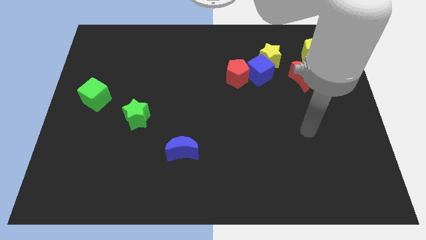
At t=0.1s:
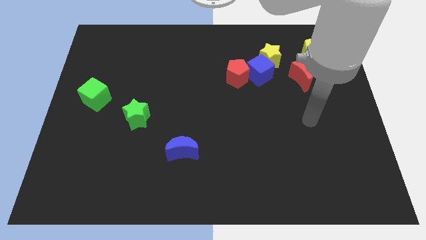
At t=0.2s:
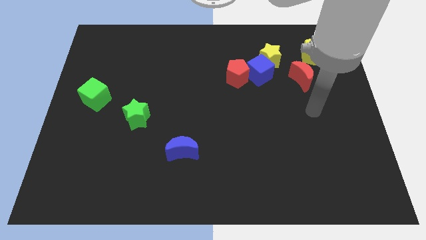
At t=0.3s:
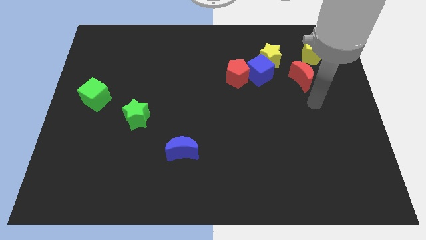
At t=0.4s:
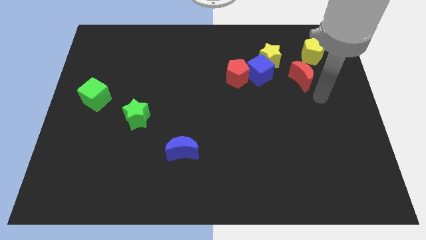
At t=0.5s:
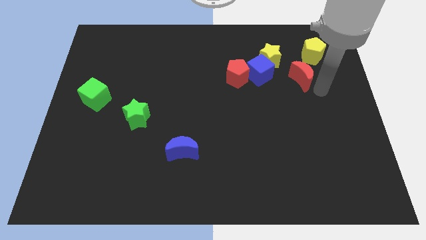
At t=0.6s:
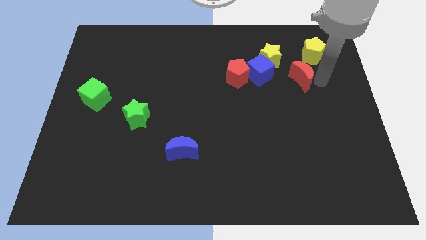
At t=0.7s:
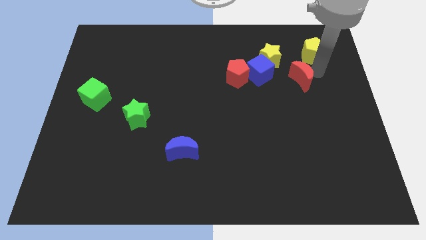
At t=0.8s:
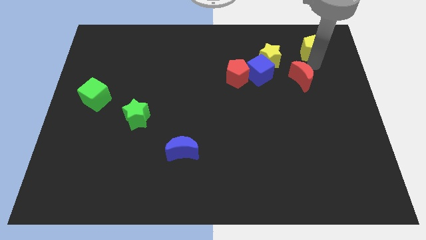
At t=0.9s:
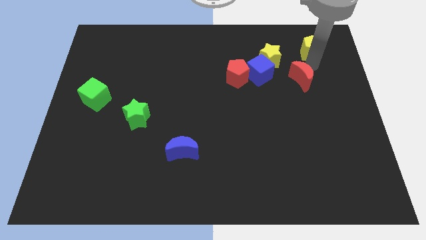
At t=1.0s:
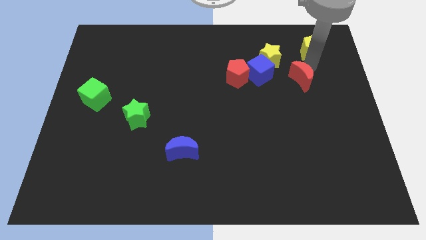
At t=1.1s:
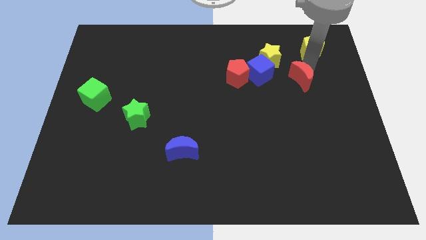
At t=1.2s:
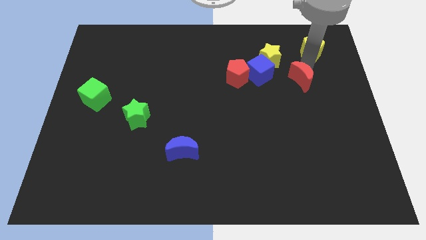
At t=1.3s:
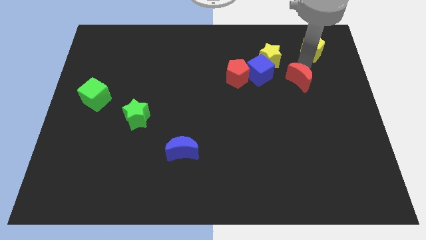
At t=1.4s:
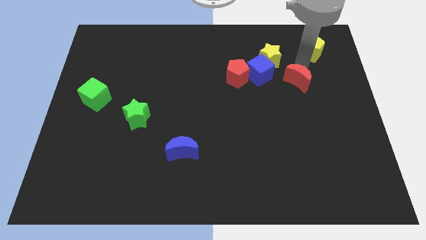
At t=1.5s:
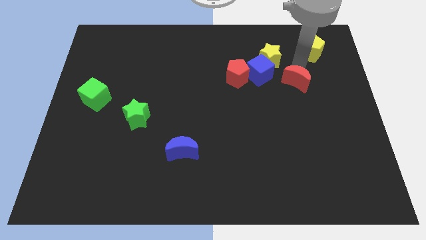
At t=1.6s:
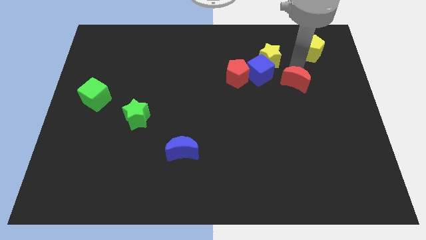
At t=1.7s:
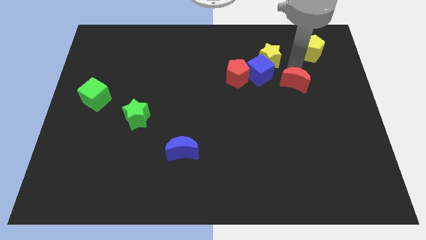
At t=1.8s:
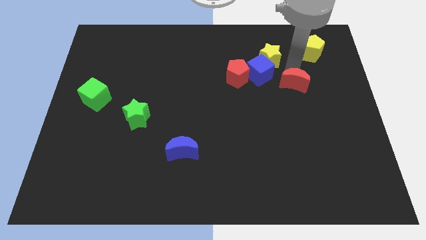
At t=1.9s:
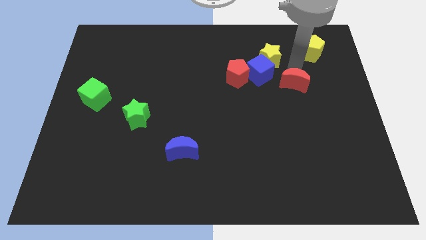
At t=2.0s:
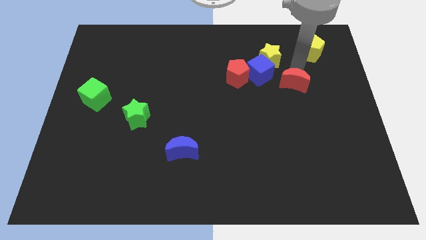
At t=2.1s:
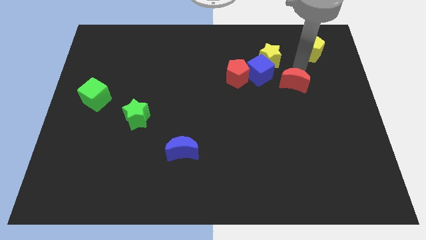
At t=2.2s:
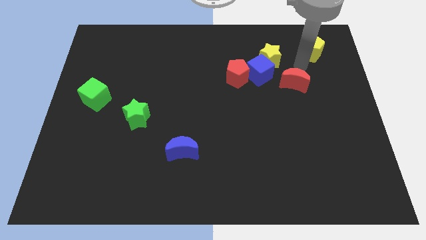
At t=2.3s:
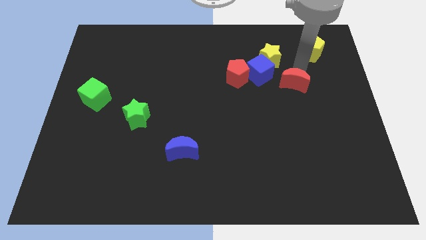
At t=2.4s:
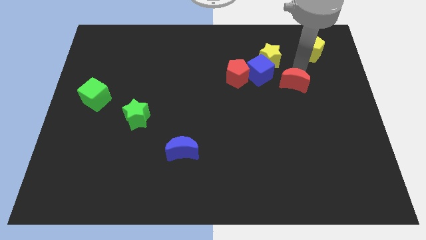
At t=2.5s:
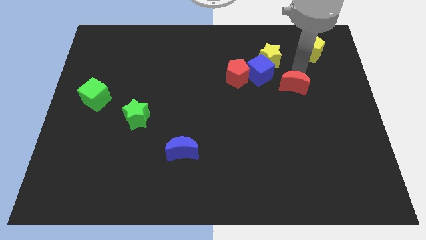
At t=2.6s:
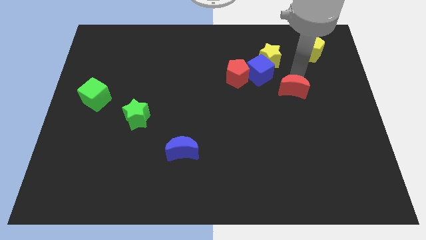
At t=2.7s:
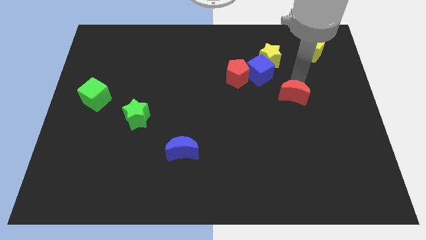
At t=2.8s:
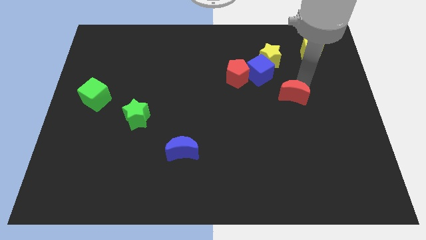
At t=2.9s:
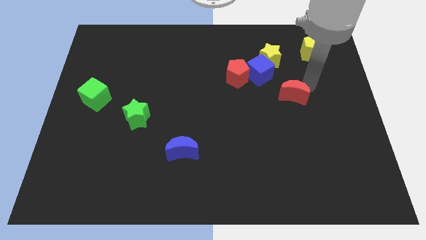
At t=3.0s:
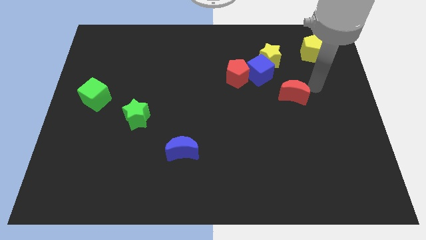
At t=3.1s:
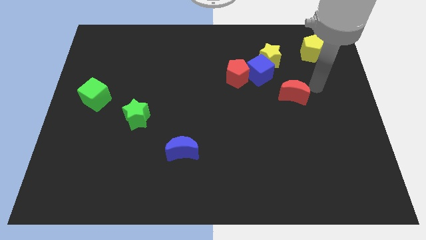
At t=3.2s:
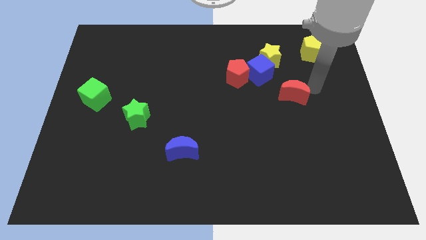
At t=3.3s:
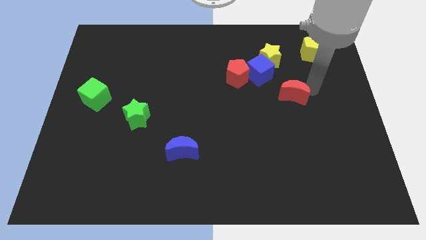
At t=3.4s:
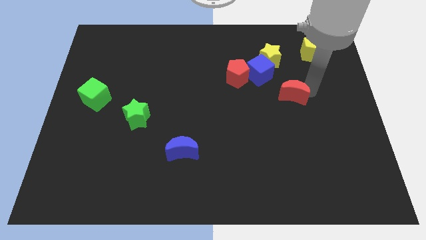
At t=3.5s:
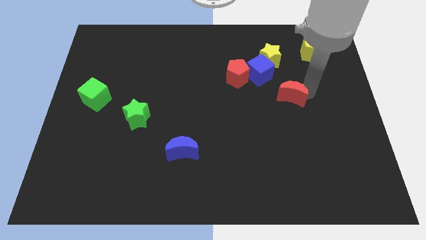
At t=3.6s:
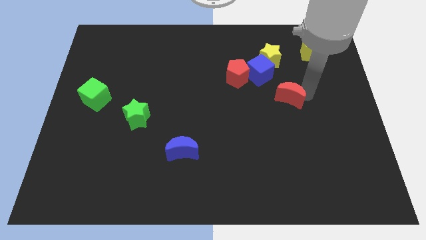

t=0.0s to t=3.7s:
move the red moon a little diagonally down and left

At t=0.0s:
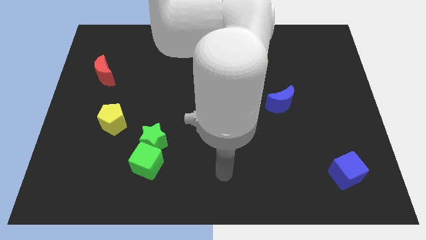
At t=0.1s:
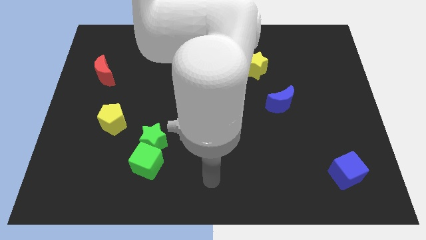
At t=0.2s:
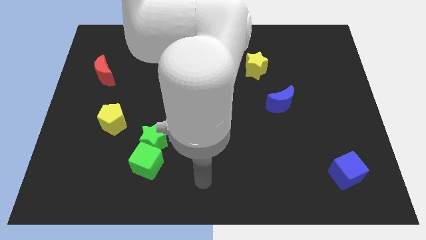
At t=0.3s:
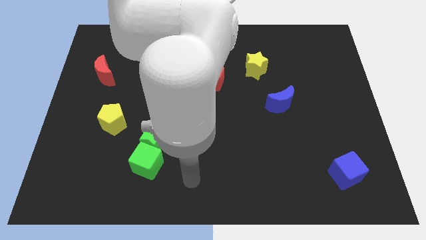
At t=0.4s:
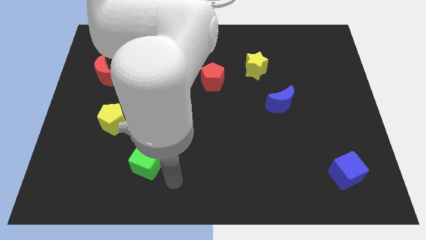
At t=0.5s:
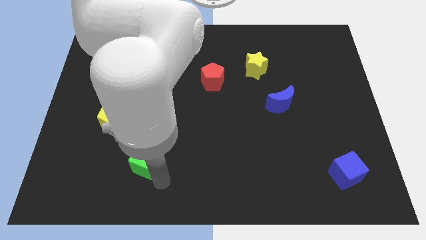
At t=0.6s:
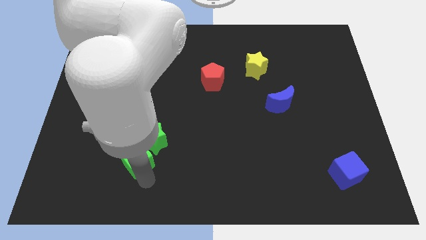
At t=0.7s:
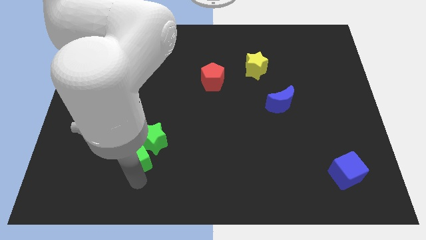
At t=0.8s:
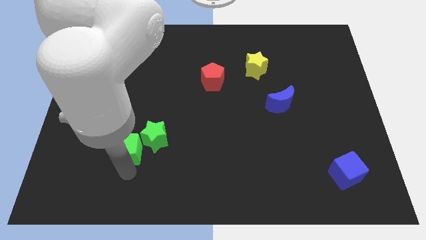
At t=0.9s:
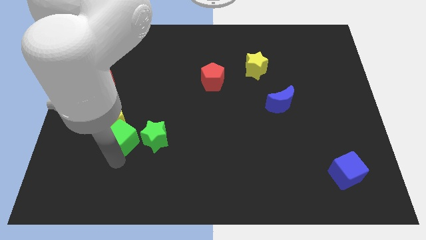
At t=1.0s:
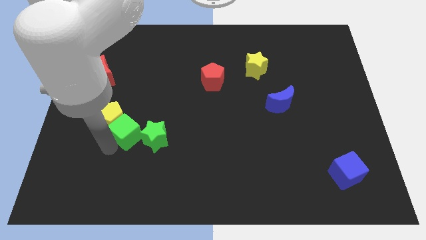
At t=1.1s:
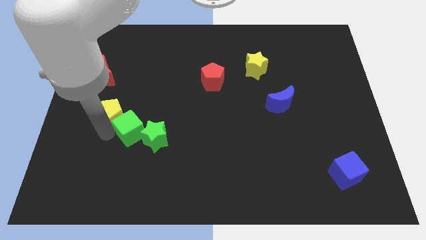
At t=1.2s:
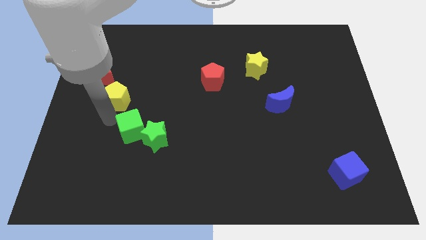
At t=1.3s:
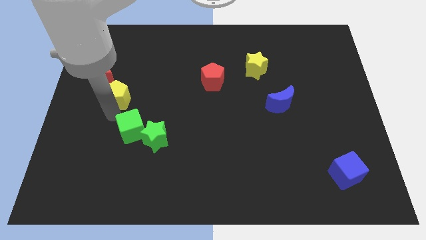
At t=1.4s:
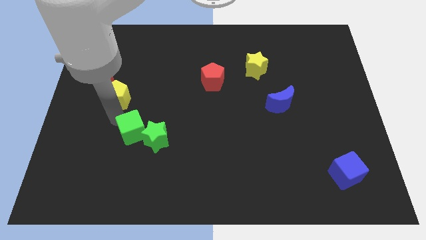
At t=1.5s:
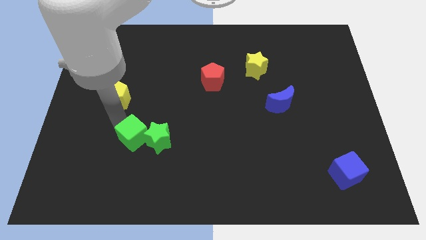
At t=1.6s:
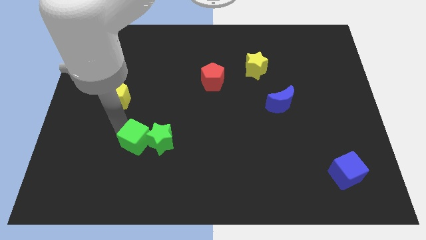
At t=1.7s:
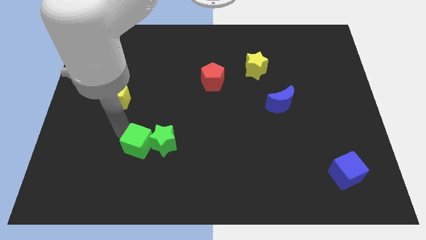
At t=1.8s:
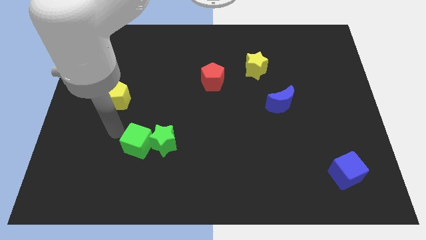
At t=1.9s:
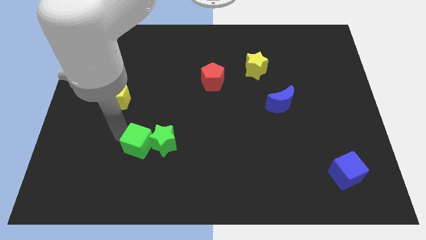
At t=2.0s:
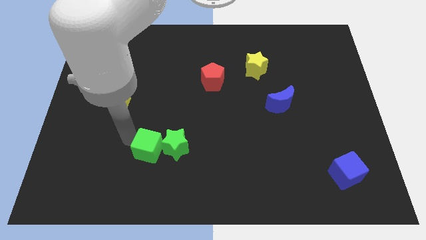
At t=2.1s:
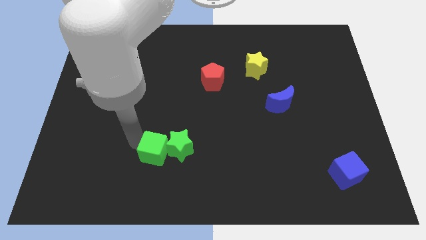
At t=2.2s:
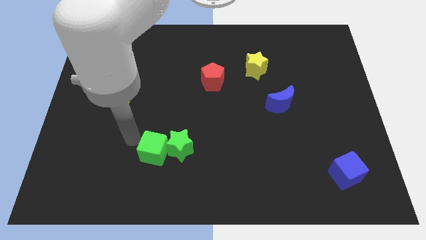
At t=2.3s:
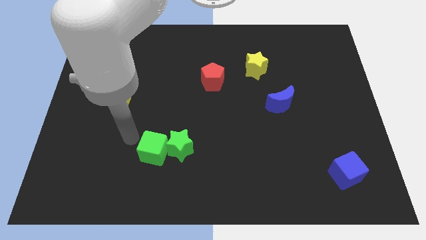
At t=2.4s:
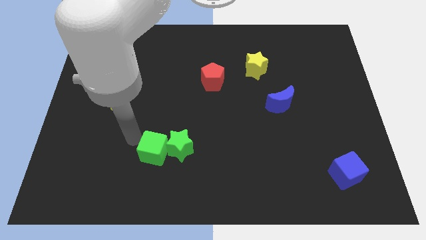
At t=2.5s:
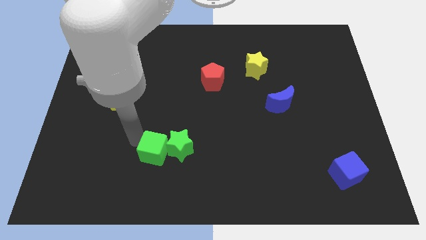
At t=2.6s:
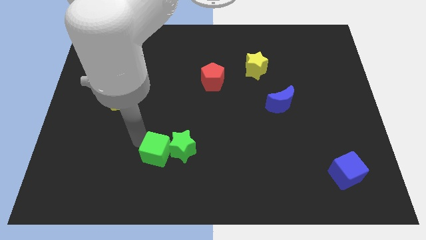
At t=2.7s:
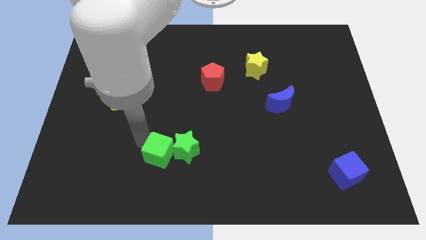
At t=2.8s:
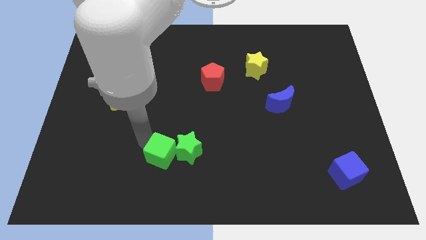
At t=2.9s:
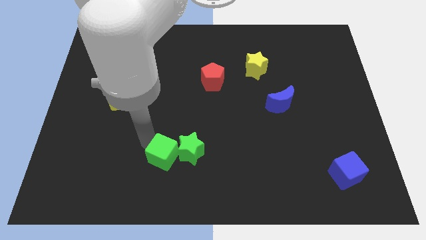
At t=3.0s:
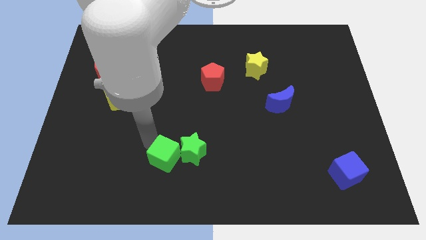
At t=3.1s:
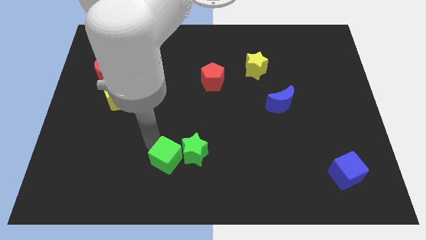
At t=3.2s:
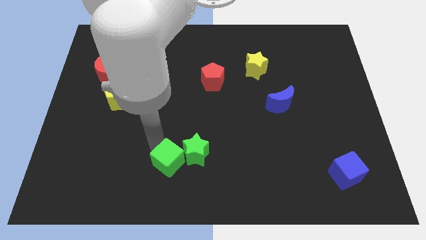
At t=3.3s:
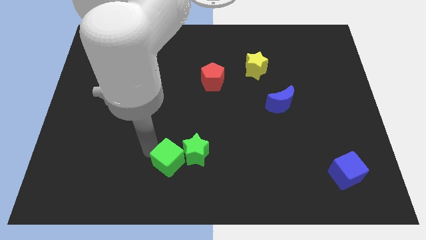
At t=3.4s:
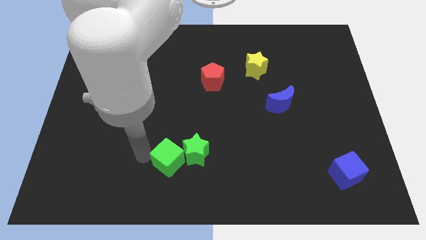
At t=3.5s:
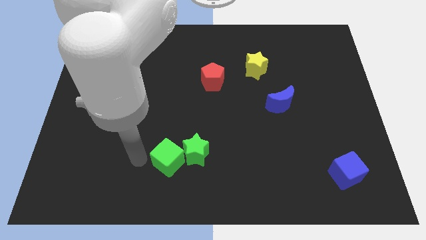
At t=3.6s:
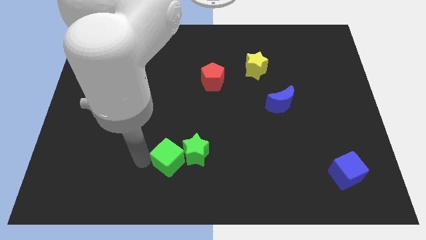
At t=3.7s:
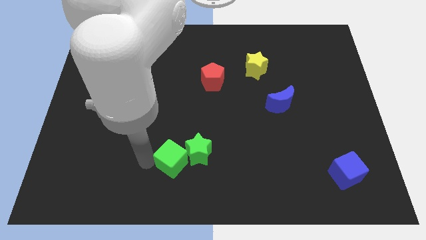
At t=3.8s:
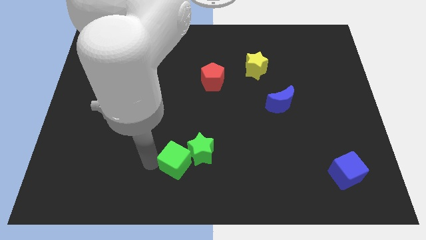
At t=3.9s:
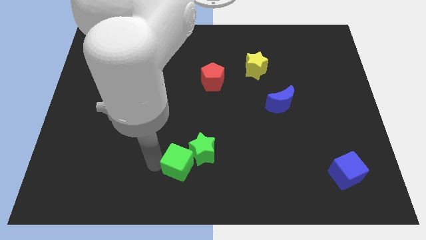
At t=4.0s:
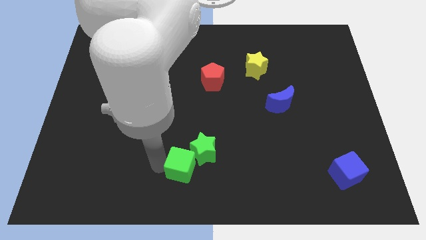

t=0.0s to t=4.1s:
push the green cube a bit right

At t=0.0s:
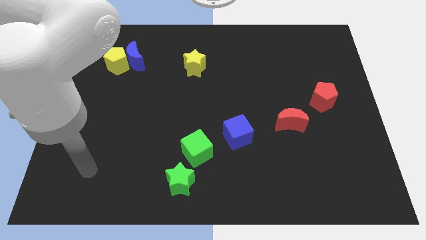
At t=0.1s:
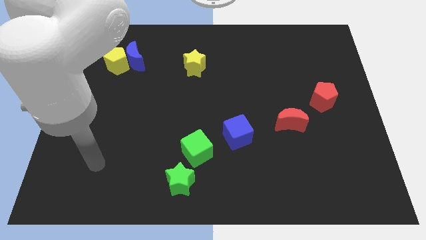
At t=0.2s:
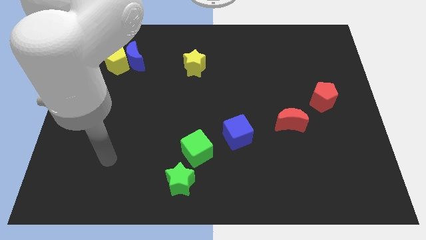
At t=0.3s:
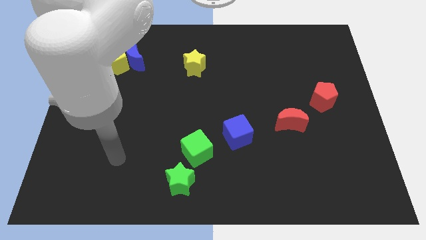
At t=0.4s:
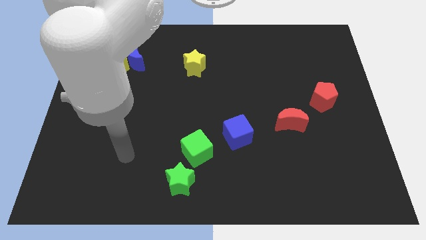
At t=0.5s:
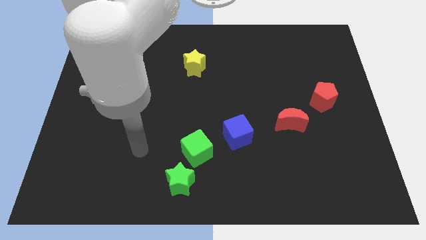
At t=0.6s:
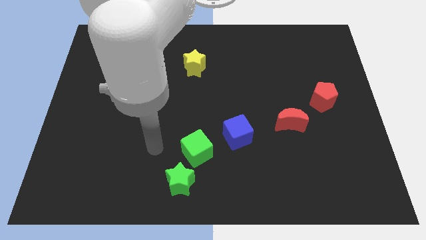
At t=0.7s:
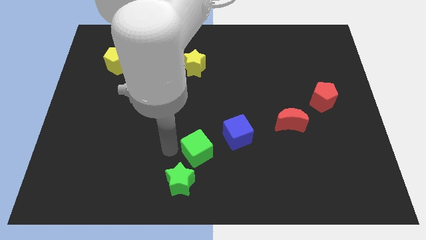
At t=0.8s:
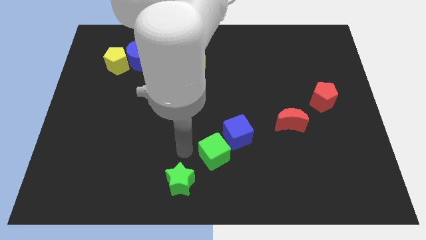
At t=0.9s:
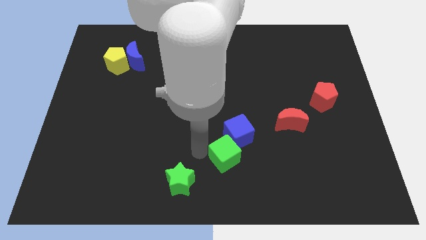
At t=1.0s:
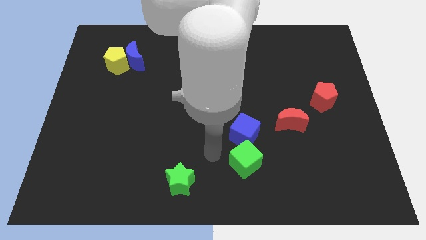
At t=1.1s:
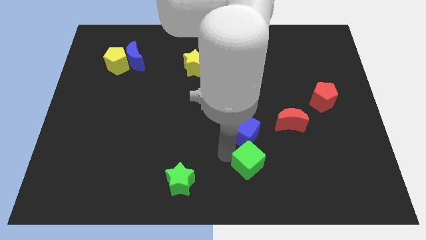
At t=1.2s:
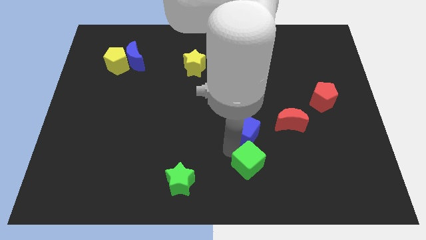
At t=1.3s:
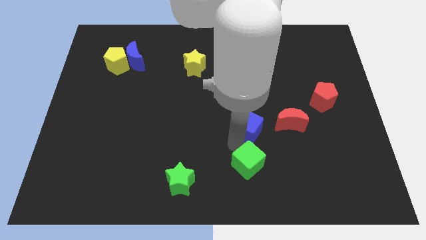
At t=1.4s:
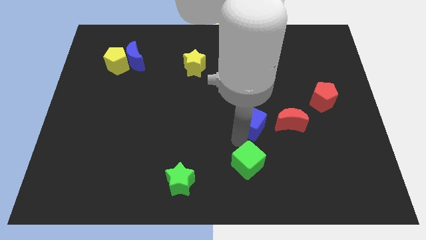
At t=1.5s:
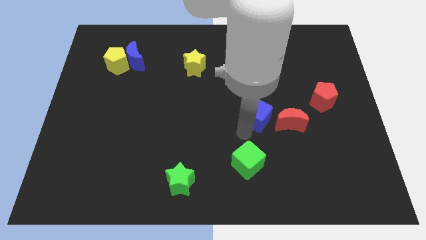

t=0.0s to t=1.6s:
push the blue cube diagonally upwards and right a bit
